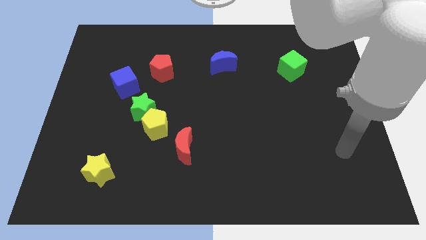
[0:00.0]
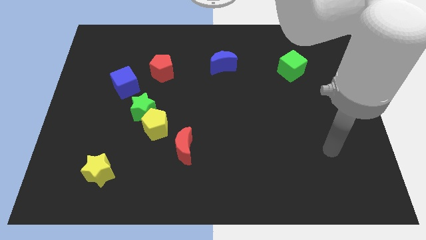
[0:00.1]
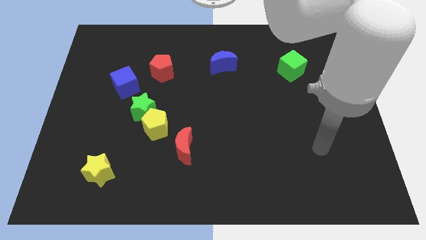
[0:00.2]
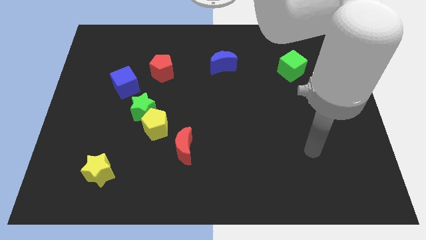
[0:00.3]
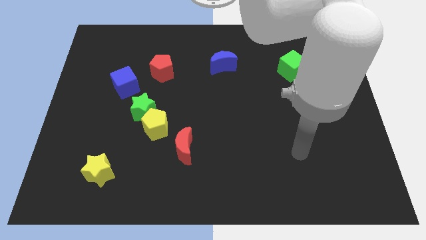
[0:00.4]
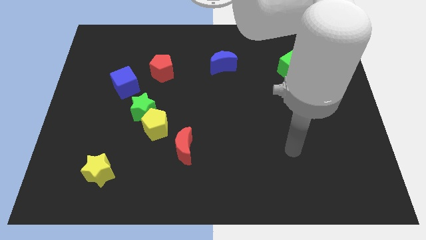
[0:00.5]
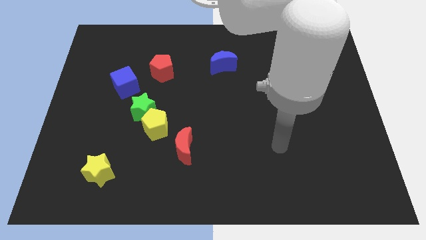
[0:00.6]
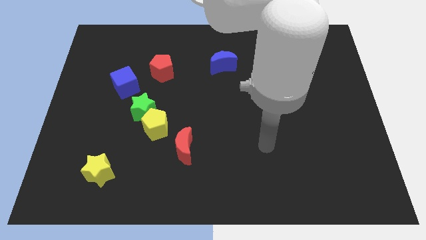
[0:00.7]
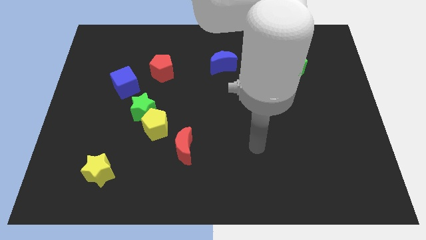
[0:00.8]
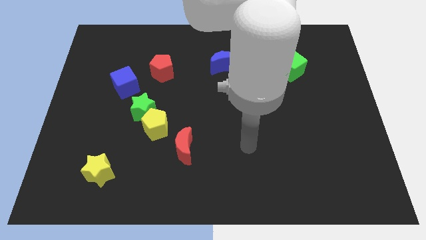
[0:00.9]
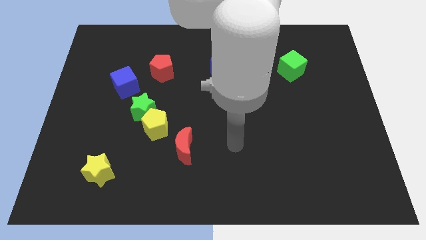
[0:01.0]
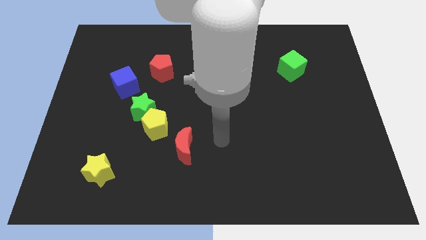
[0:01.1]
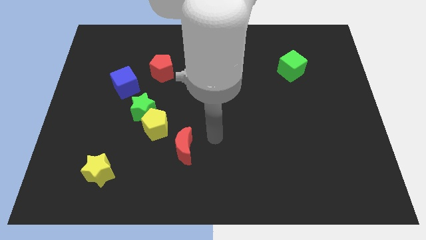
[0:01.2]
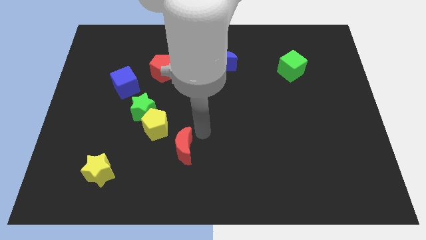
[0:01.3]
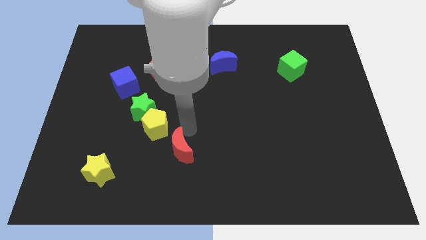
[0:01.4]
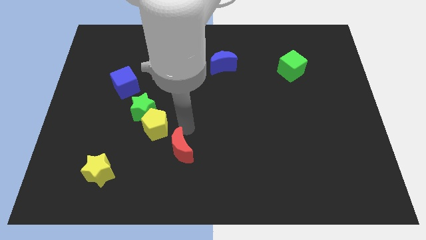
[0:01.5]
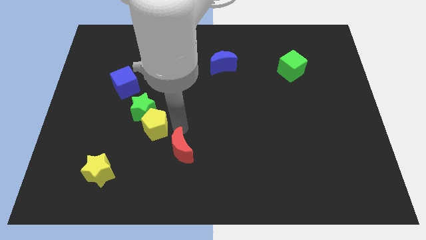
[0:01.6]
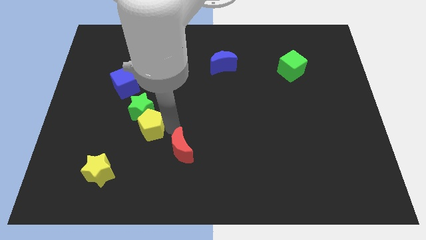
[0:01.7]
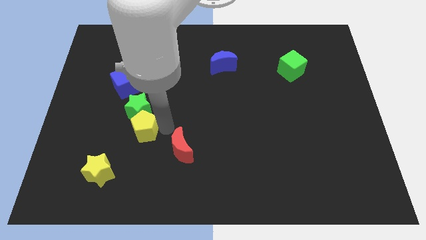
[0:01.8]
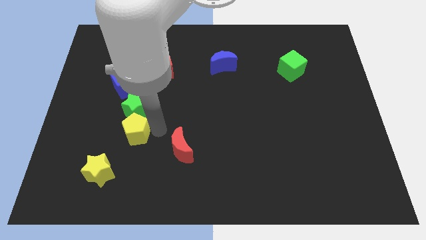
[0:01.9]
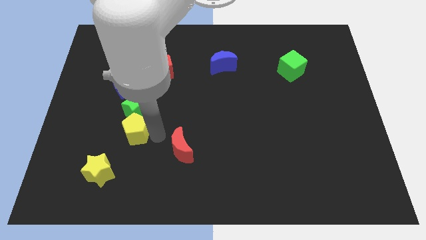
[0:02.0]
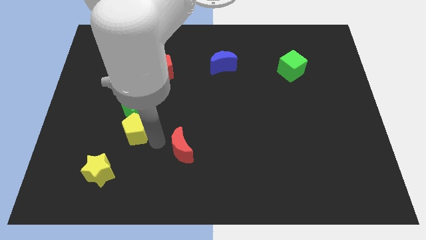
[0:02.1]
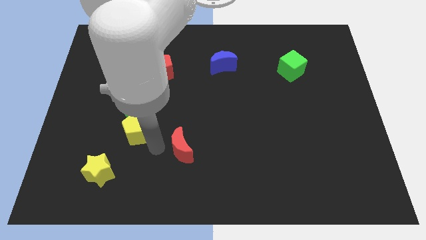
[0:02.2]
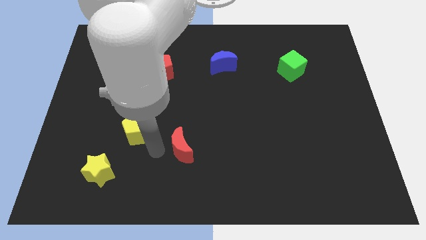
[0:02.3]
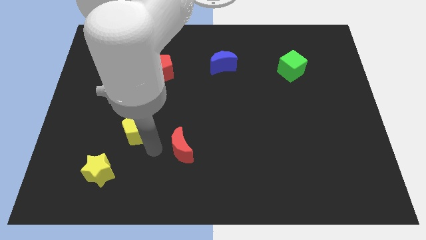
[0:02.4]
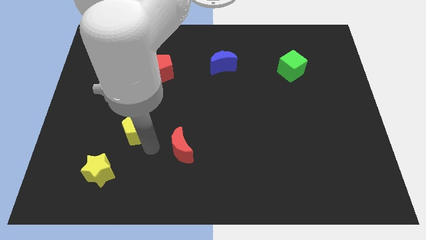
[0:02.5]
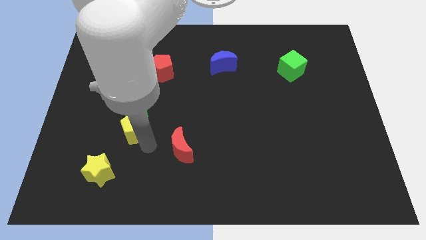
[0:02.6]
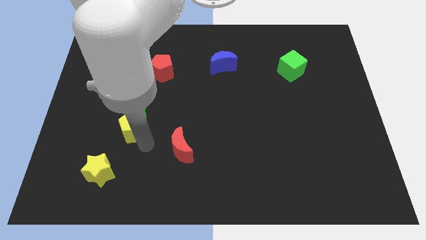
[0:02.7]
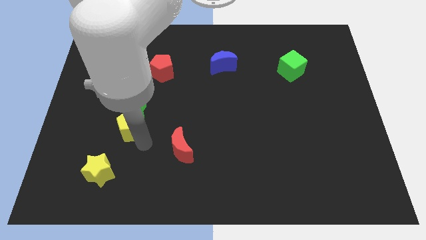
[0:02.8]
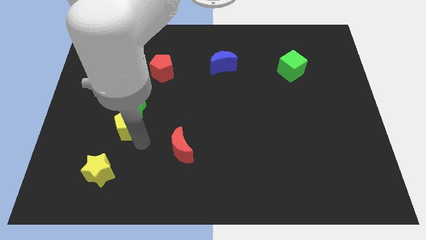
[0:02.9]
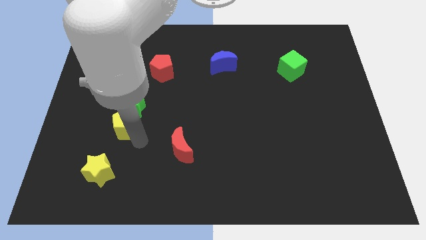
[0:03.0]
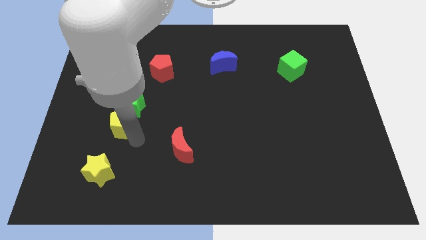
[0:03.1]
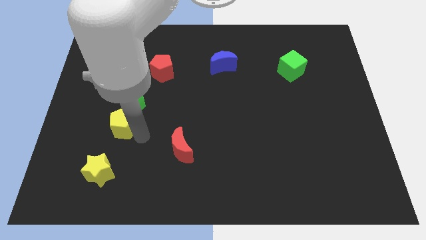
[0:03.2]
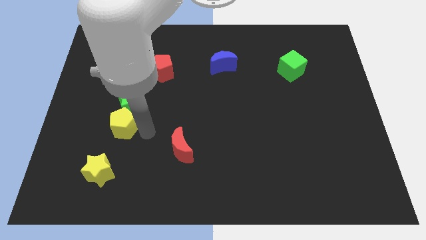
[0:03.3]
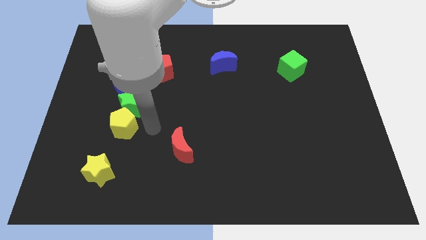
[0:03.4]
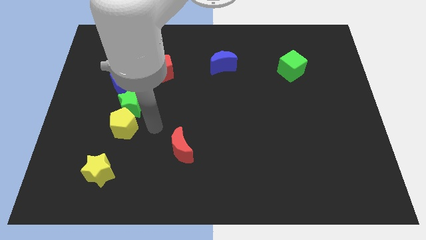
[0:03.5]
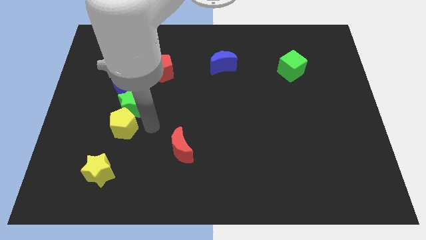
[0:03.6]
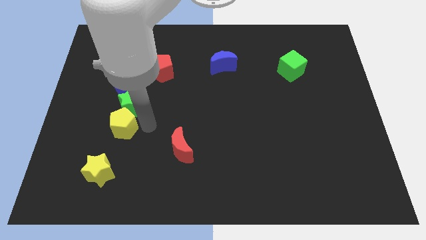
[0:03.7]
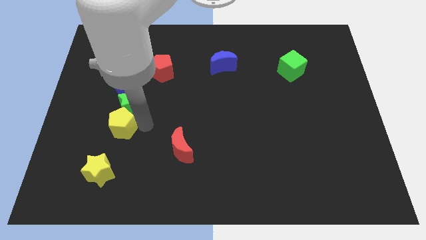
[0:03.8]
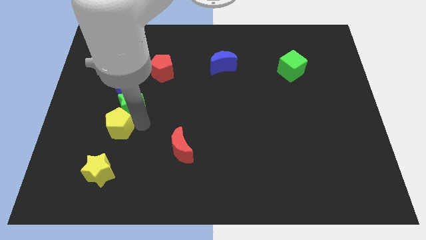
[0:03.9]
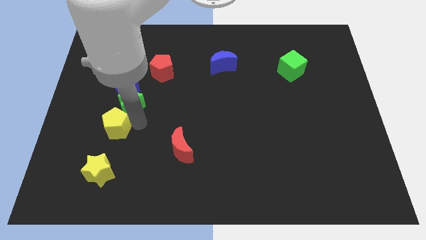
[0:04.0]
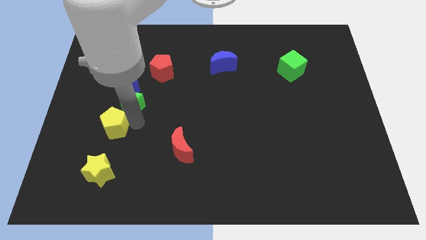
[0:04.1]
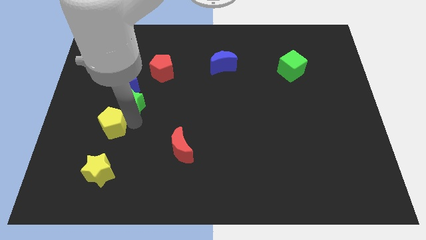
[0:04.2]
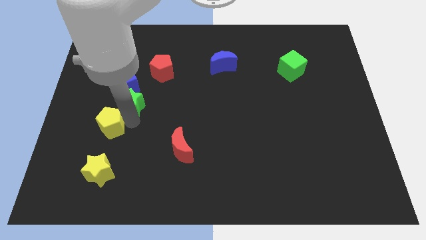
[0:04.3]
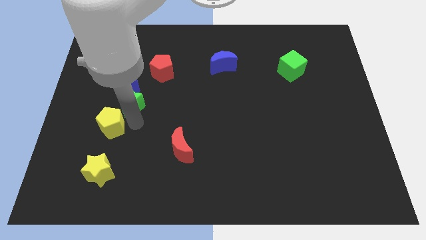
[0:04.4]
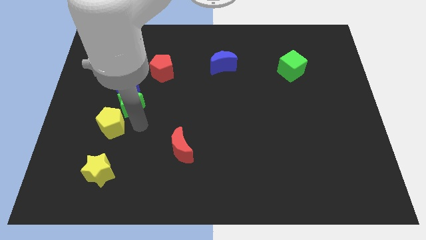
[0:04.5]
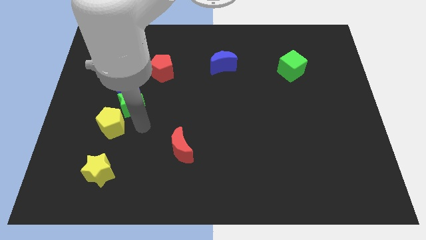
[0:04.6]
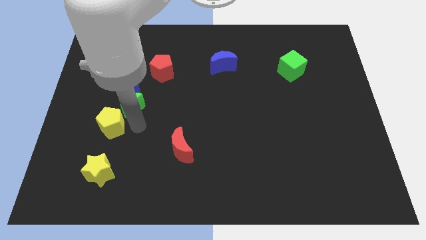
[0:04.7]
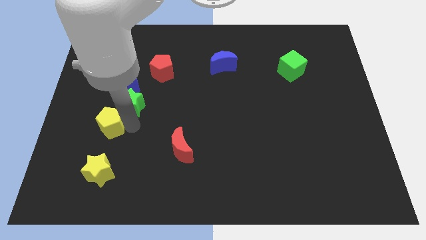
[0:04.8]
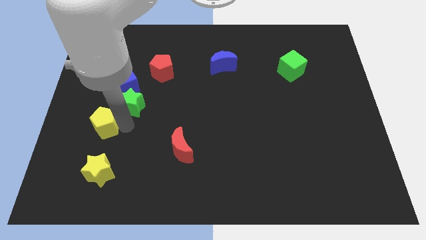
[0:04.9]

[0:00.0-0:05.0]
pull the yellow pentagon apart from the green star and red moon

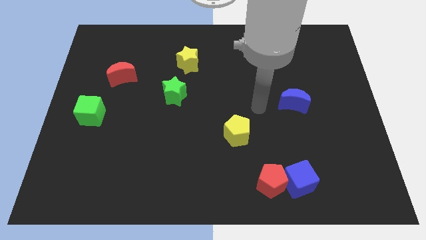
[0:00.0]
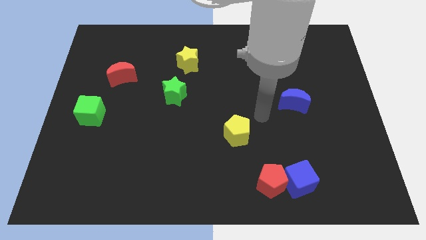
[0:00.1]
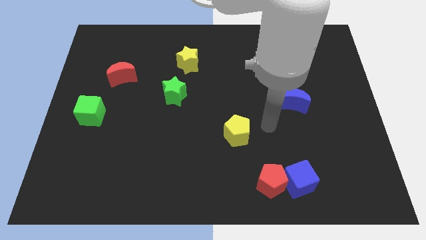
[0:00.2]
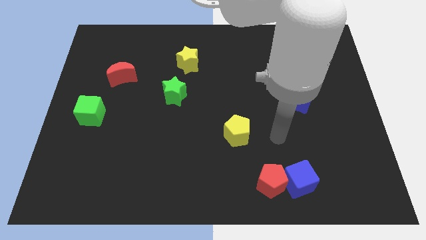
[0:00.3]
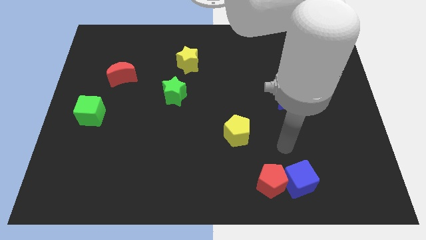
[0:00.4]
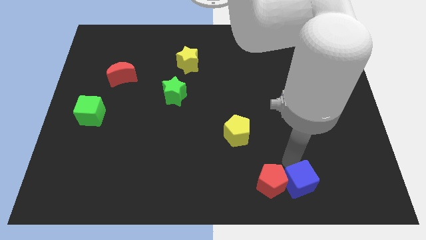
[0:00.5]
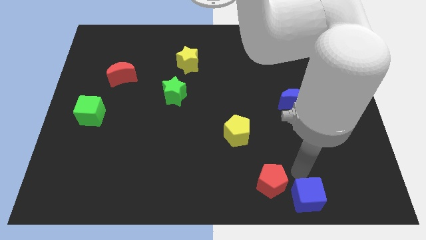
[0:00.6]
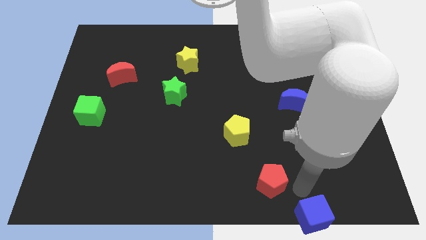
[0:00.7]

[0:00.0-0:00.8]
separate the red pentagon from the blue cube

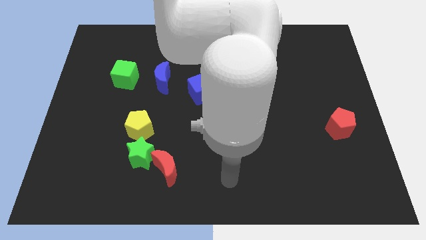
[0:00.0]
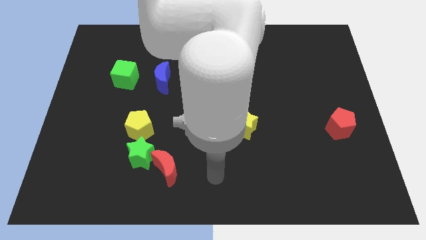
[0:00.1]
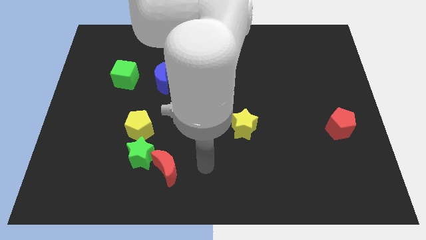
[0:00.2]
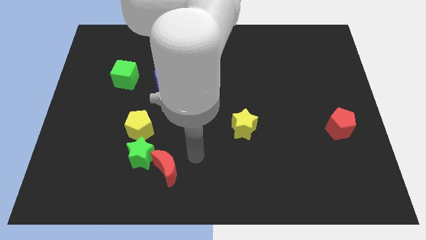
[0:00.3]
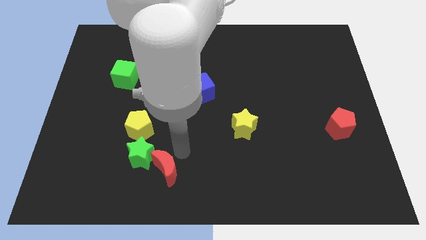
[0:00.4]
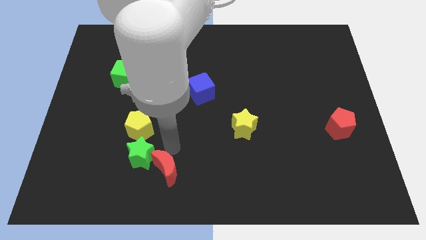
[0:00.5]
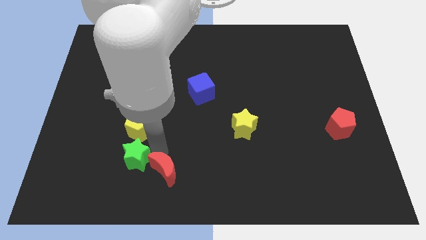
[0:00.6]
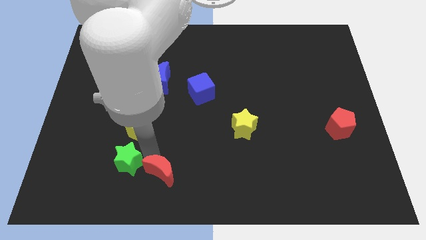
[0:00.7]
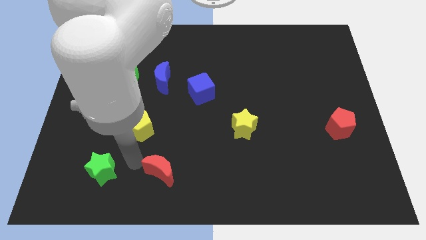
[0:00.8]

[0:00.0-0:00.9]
pull the red moon apart from the green star

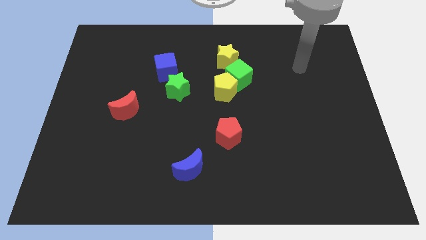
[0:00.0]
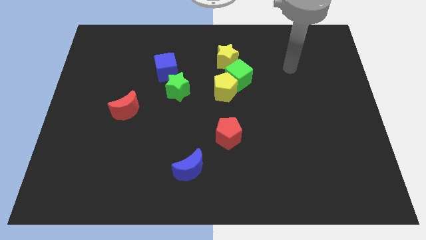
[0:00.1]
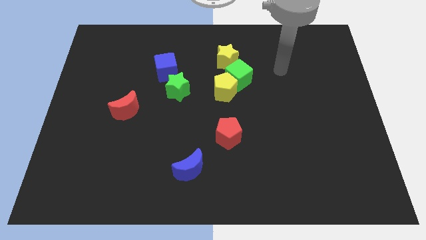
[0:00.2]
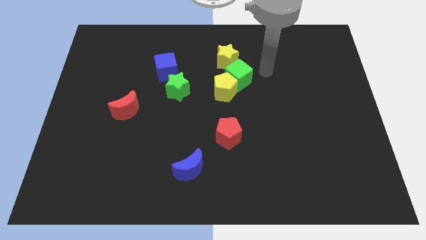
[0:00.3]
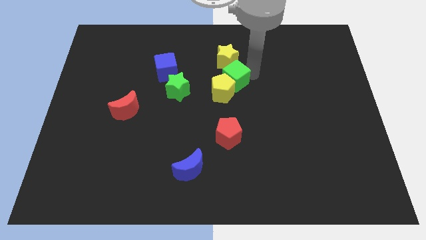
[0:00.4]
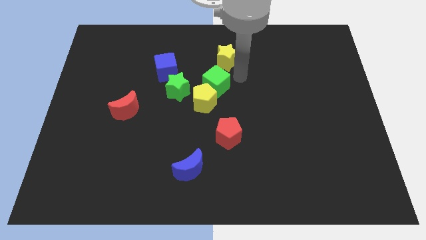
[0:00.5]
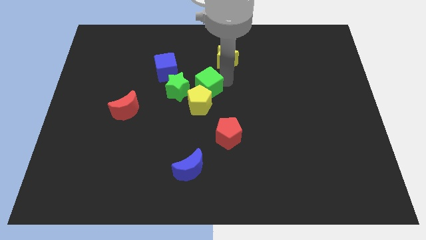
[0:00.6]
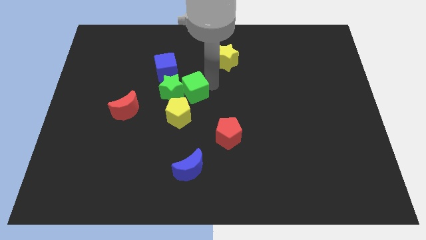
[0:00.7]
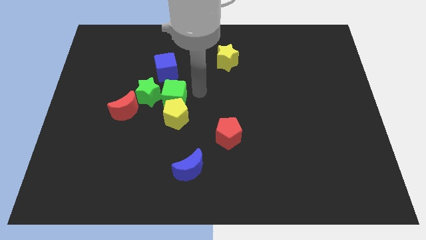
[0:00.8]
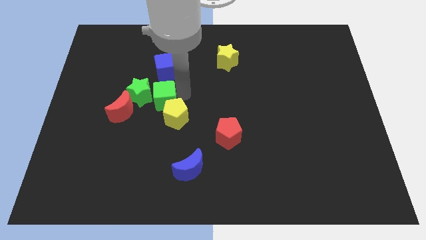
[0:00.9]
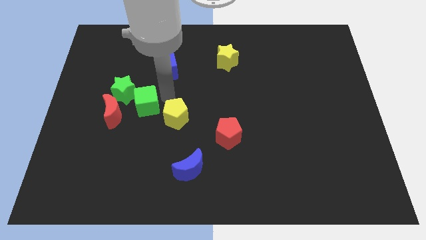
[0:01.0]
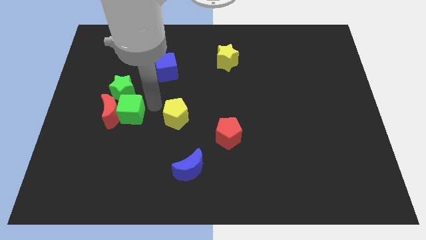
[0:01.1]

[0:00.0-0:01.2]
pull the yellow pentagon apart from the green cube

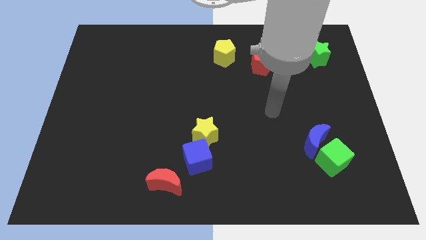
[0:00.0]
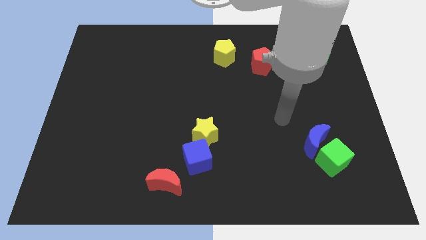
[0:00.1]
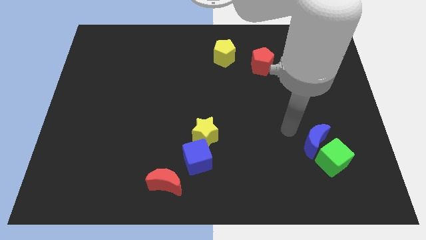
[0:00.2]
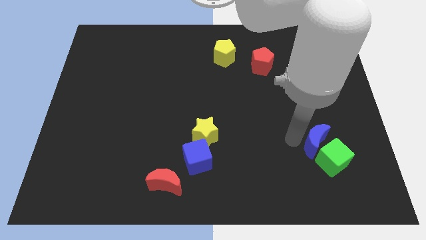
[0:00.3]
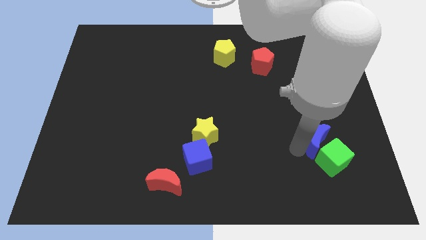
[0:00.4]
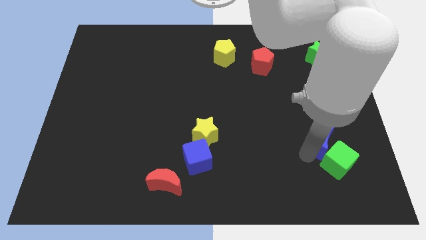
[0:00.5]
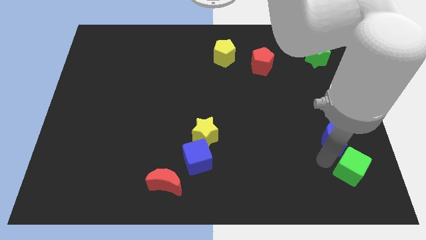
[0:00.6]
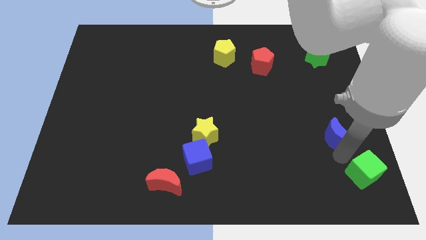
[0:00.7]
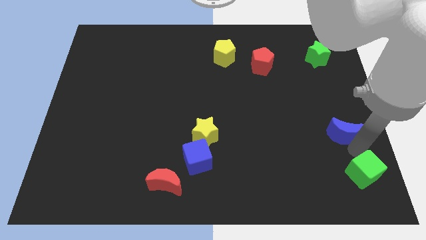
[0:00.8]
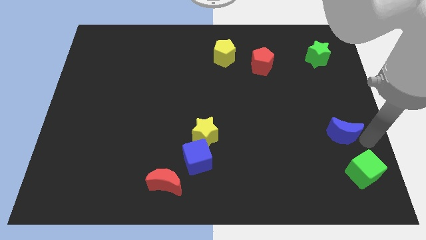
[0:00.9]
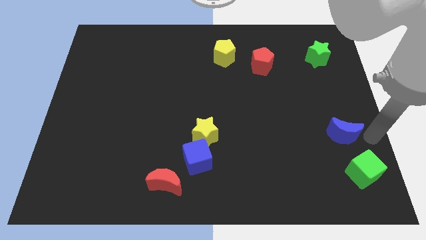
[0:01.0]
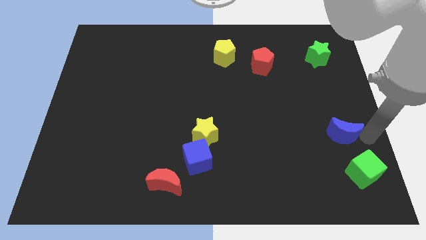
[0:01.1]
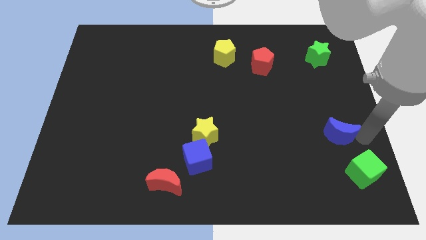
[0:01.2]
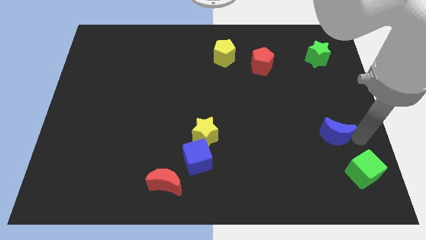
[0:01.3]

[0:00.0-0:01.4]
move the blue moon away from the green cube
